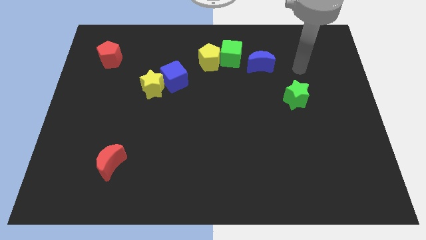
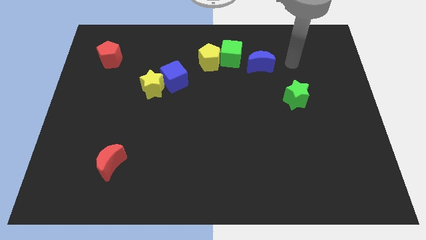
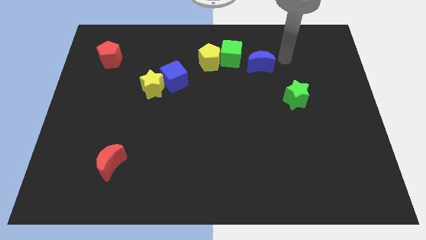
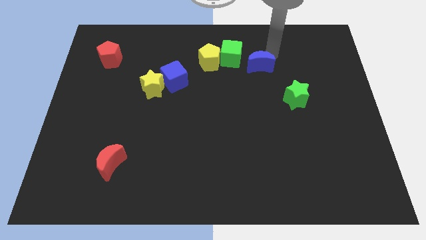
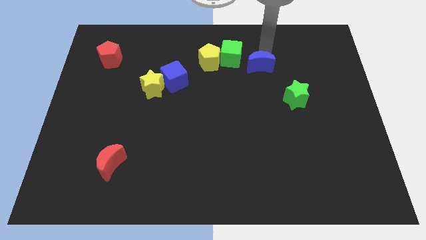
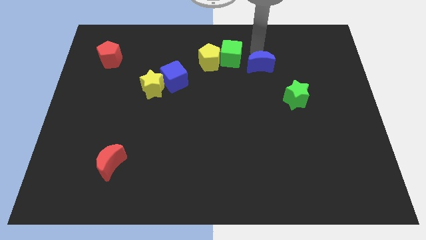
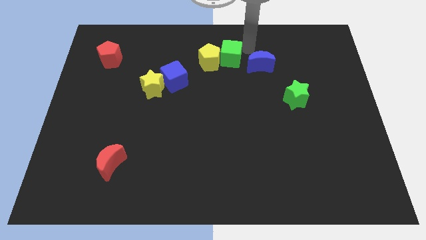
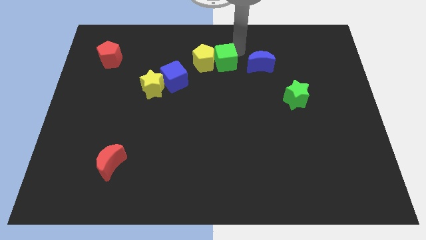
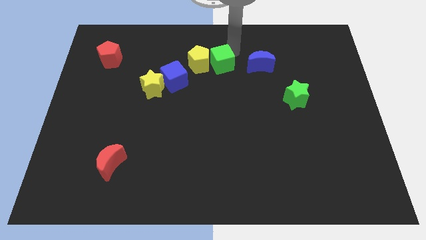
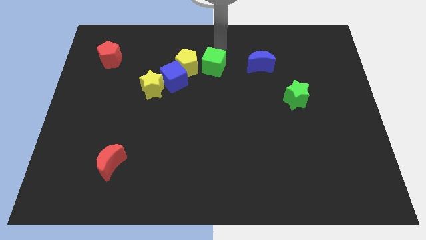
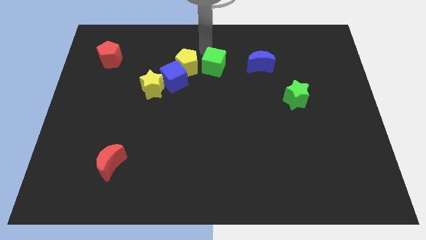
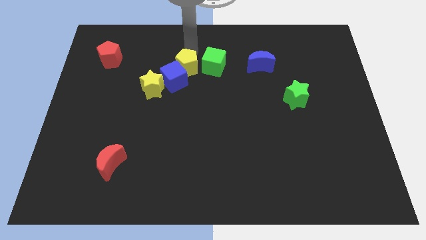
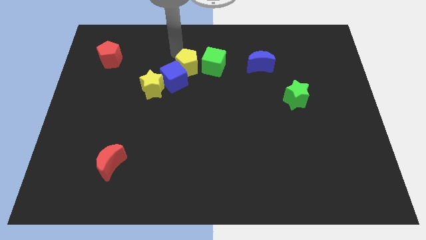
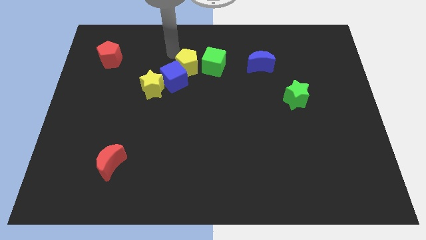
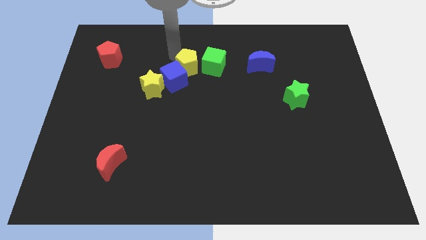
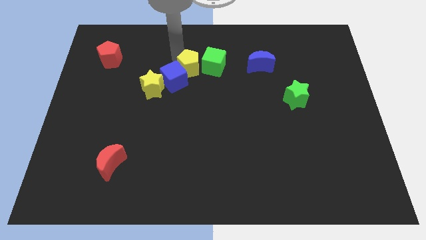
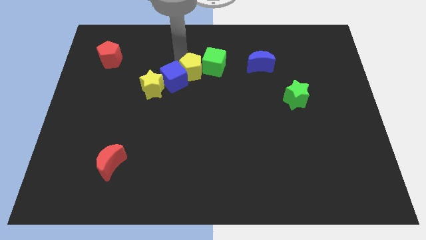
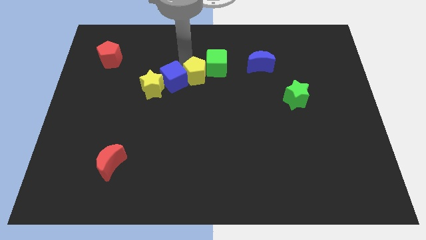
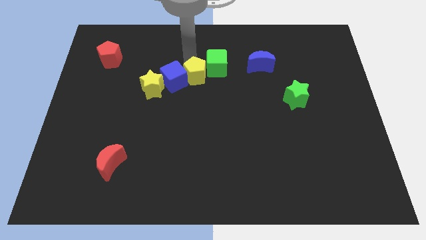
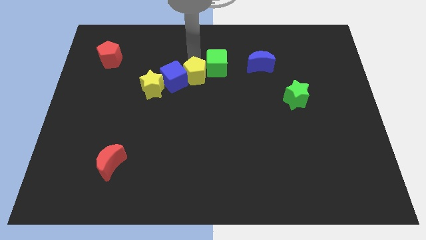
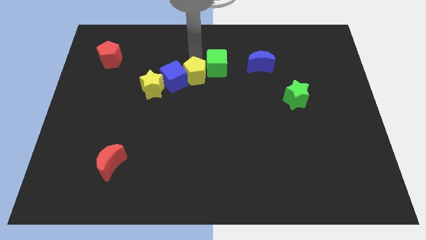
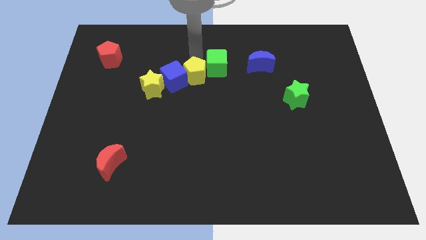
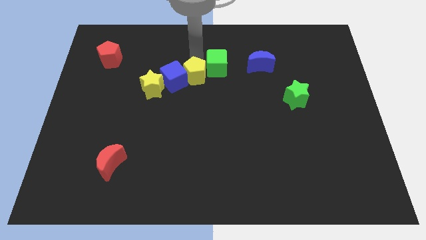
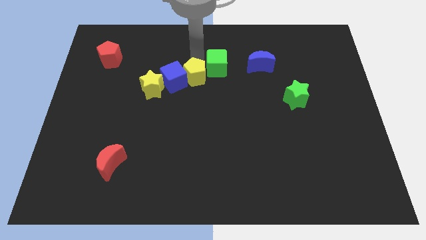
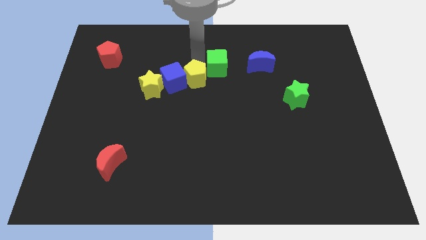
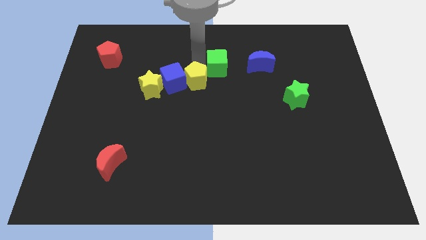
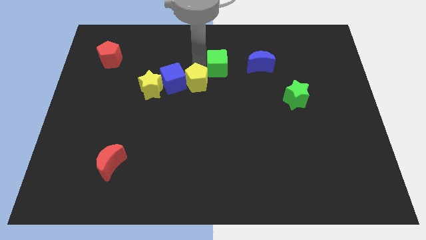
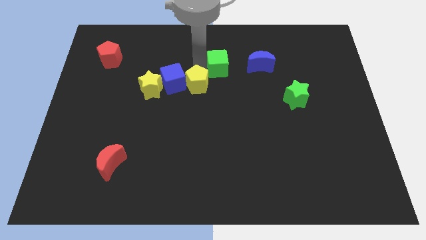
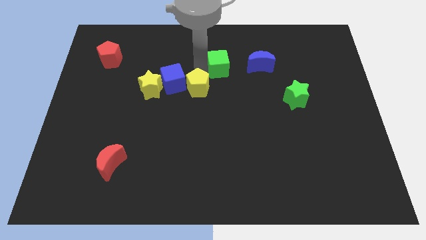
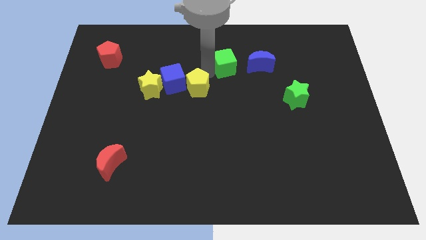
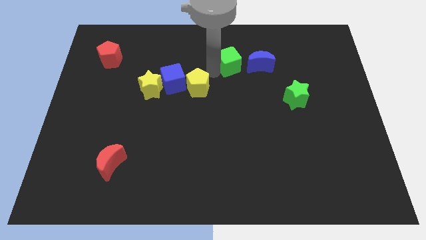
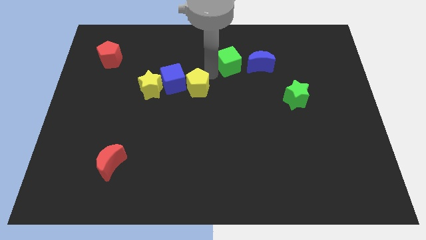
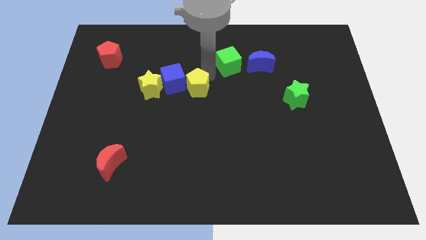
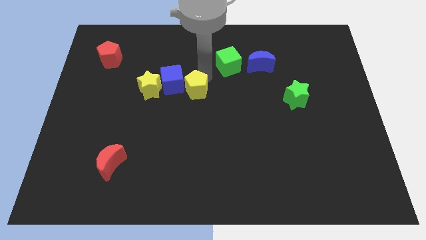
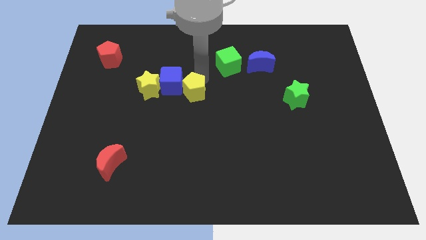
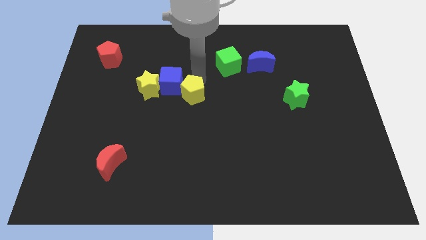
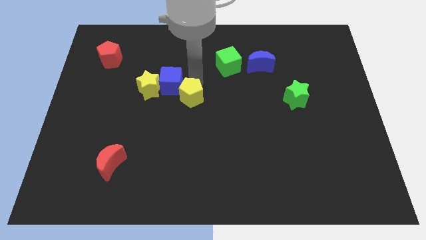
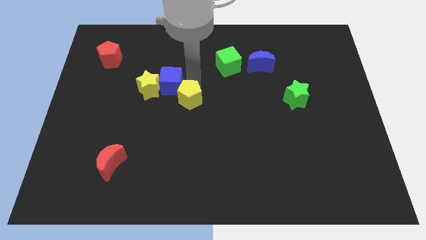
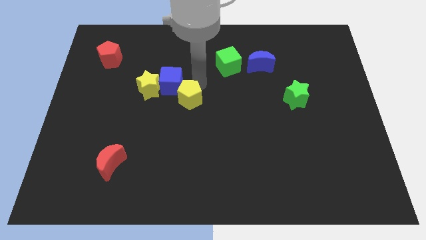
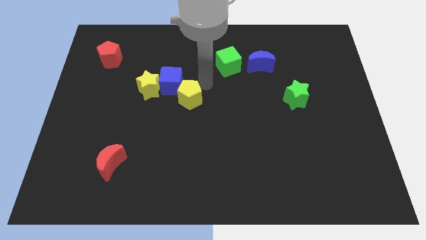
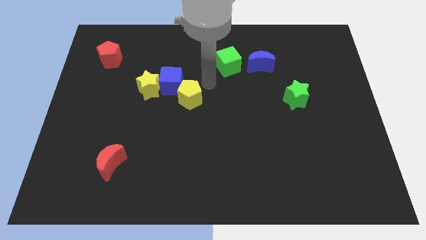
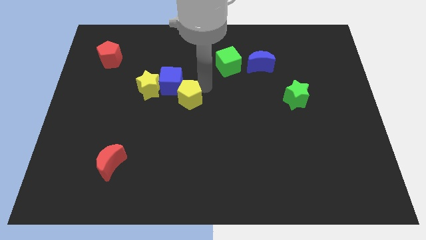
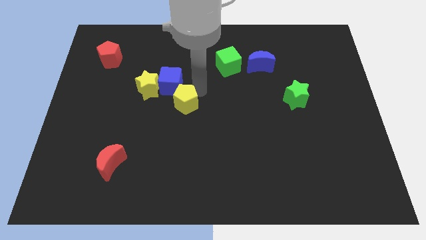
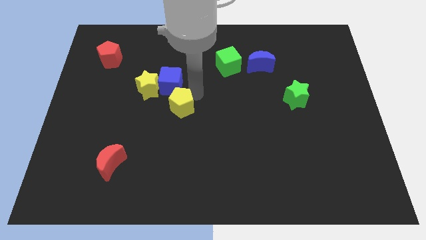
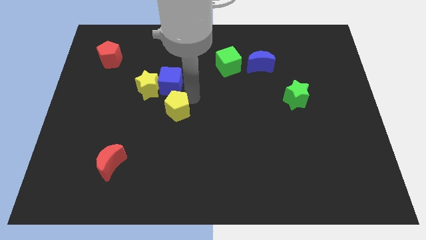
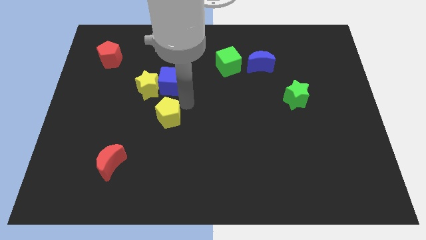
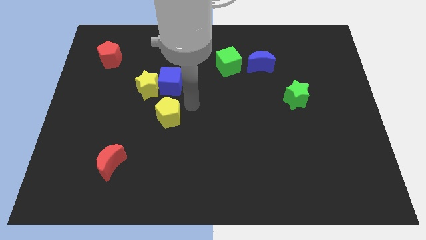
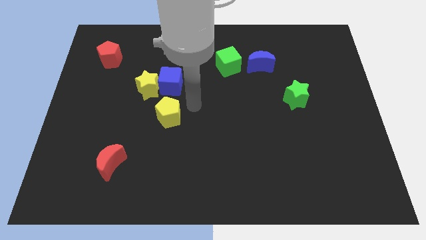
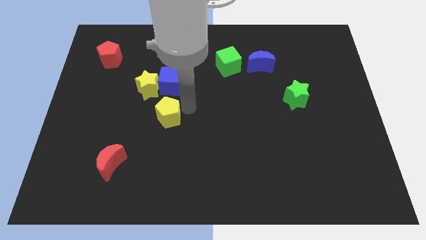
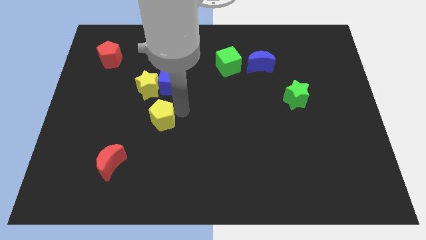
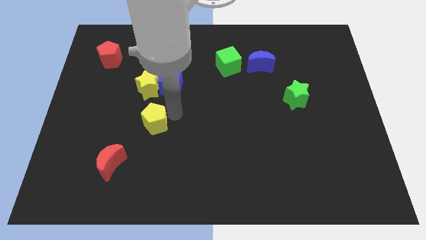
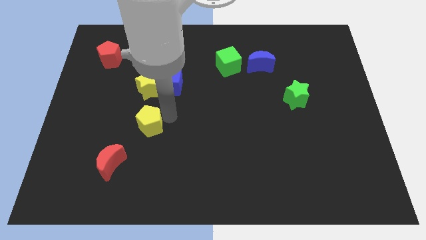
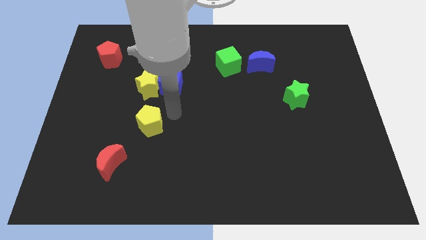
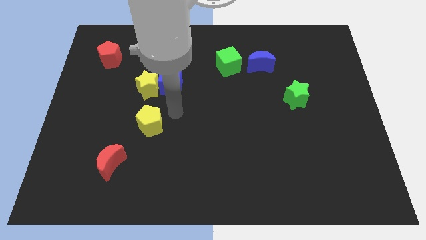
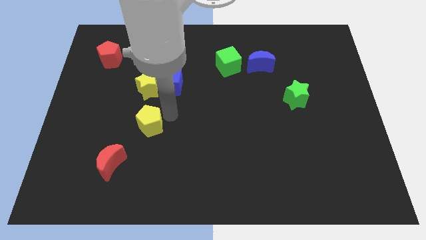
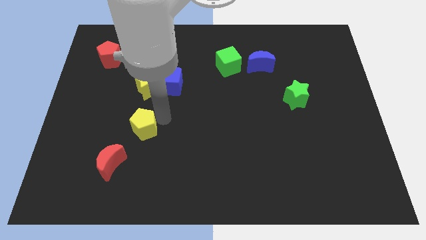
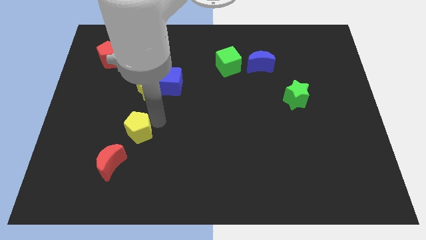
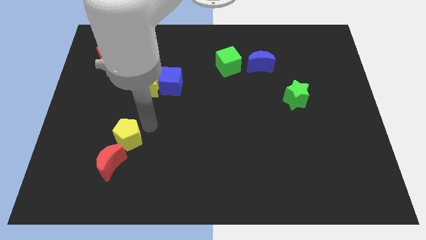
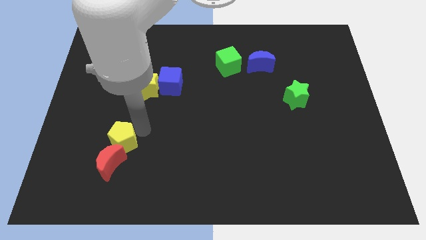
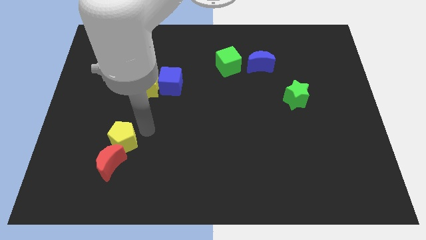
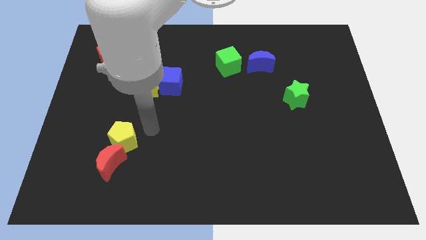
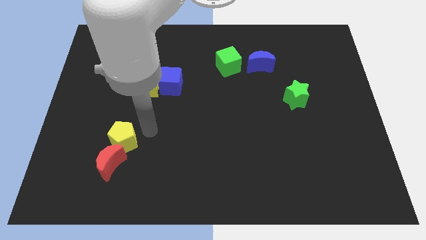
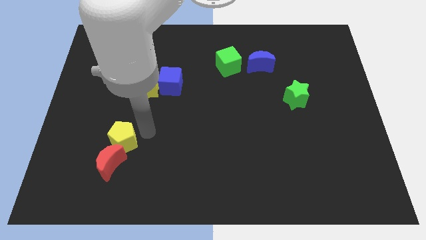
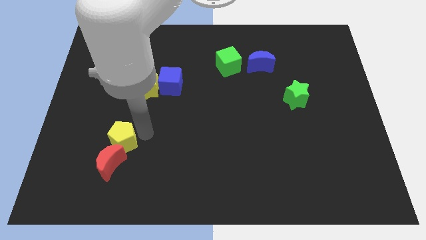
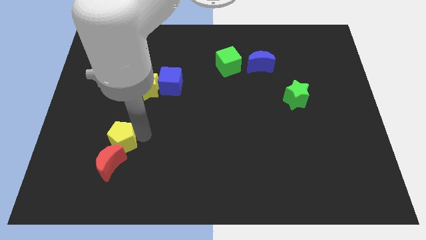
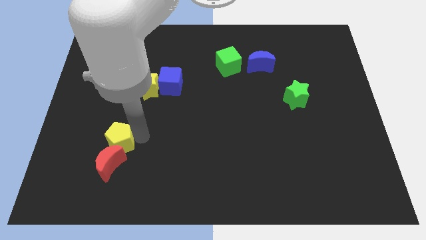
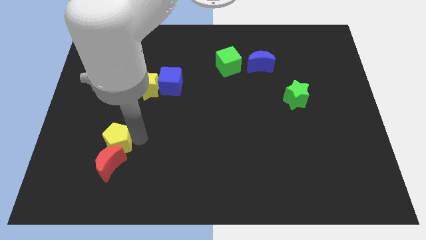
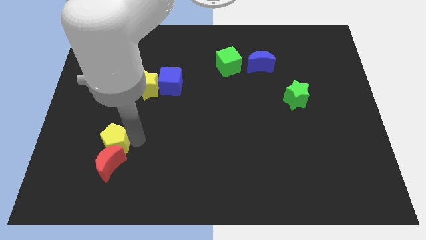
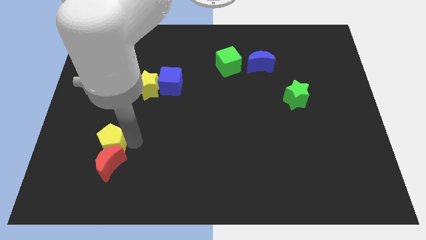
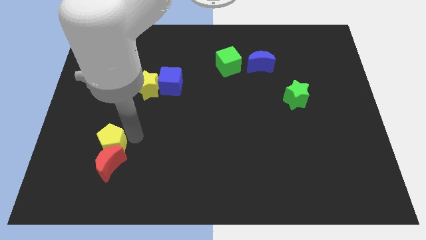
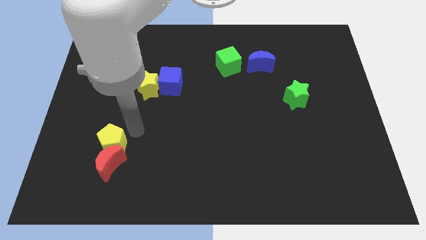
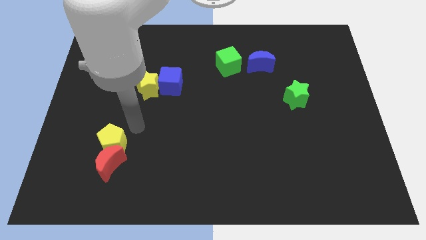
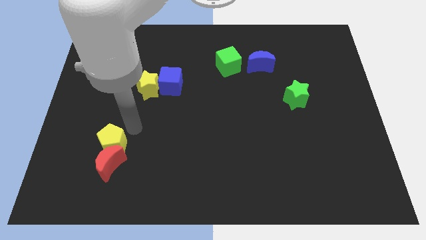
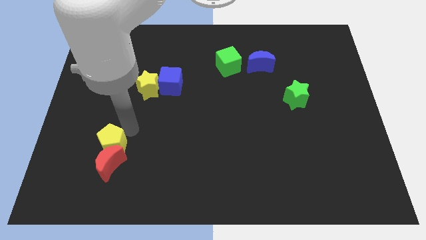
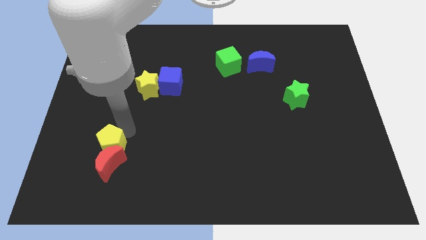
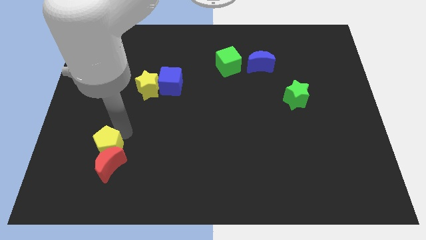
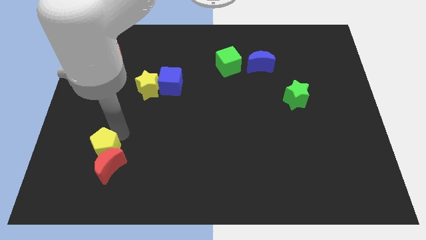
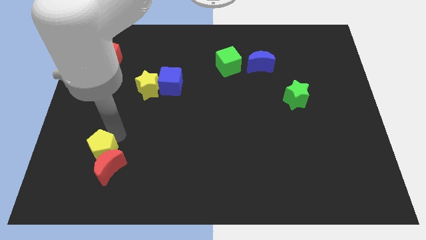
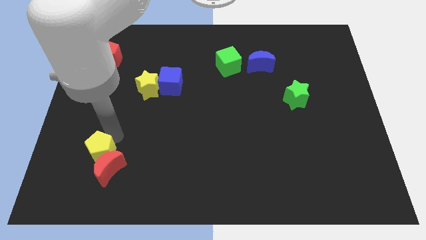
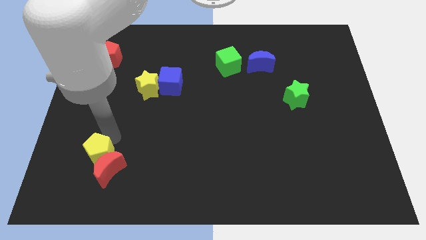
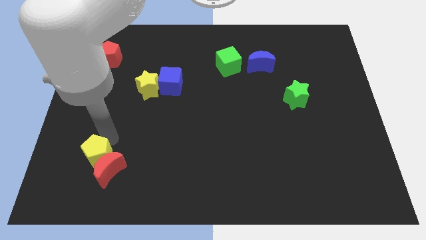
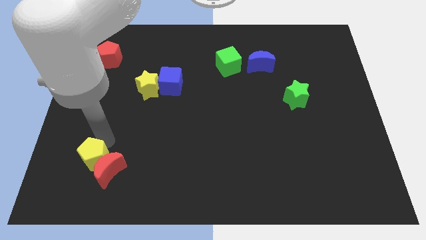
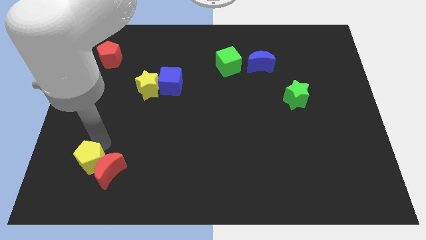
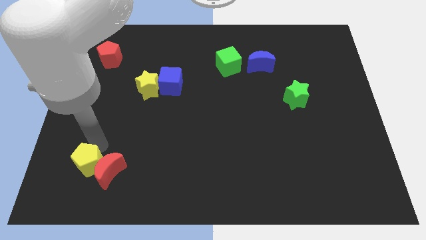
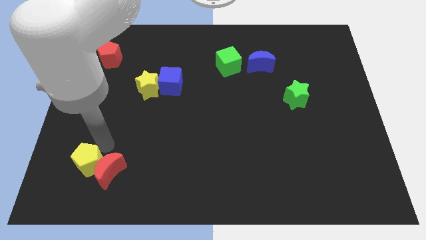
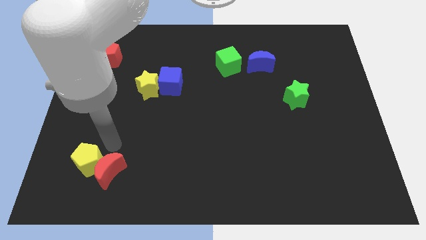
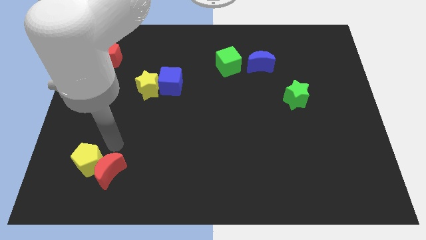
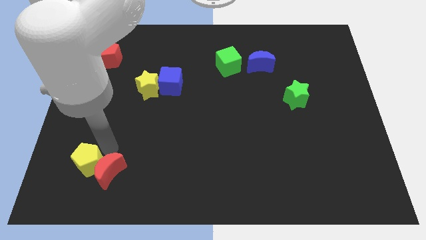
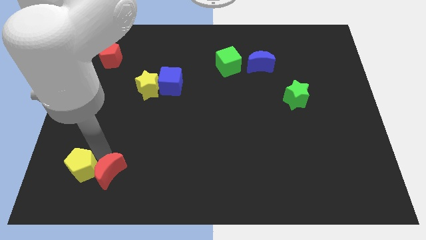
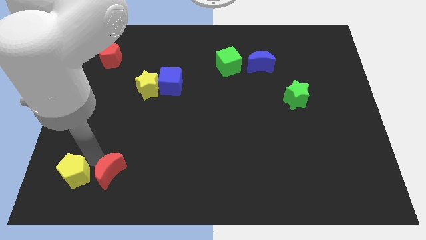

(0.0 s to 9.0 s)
put the yellow pentagon to the bottom left of the board
